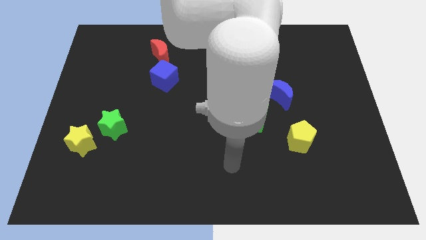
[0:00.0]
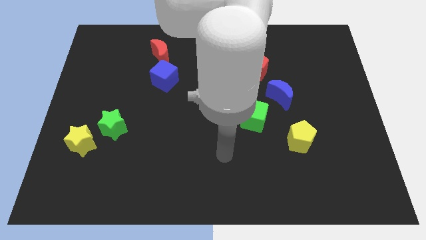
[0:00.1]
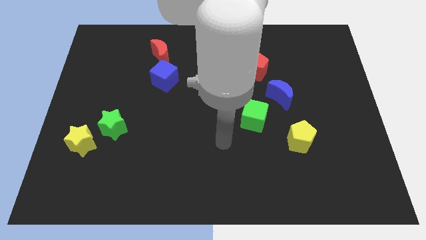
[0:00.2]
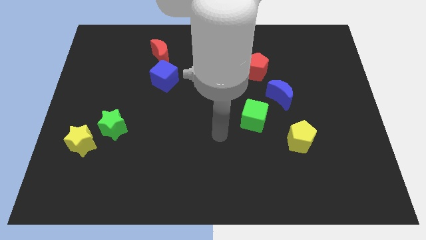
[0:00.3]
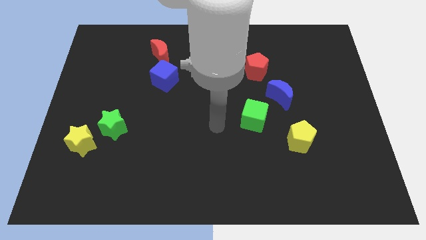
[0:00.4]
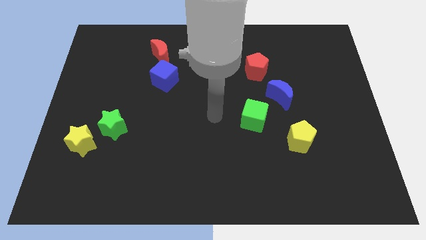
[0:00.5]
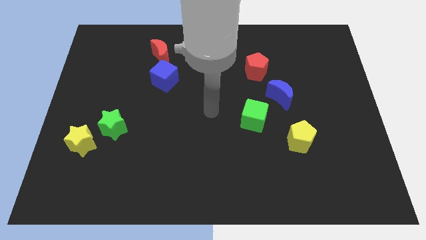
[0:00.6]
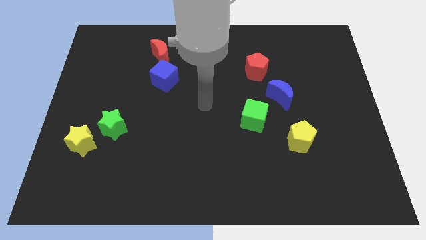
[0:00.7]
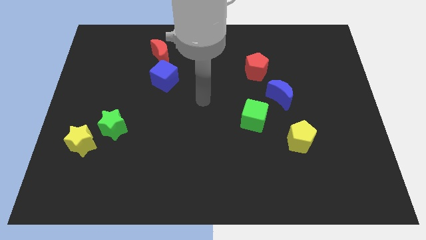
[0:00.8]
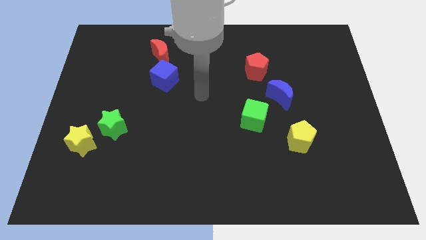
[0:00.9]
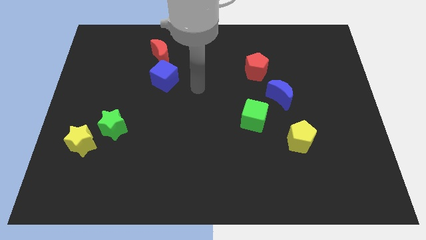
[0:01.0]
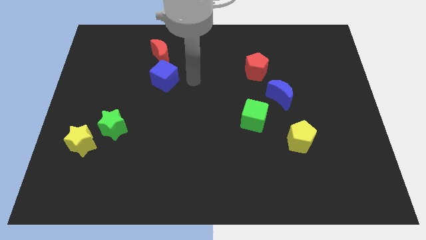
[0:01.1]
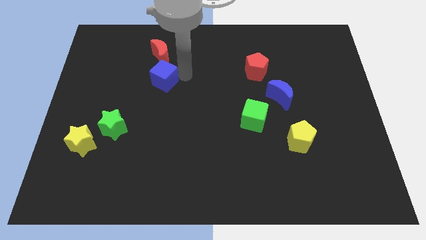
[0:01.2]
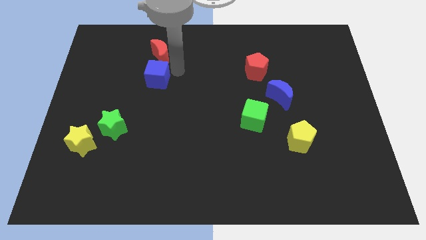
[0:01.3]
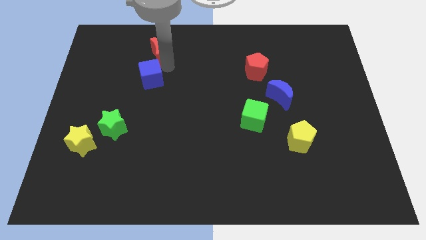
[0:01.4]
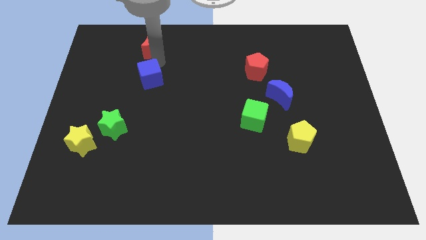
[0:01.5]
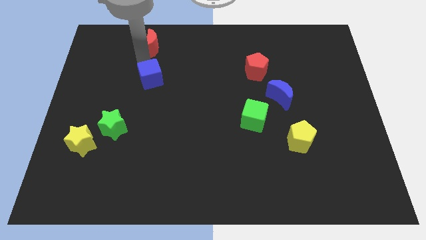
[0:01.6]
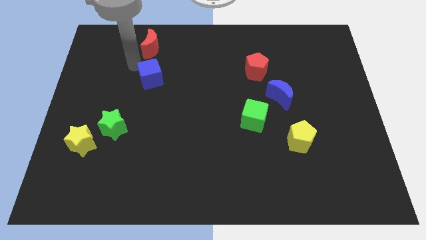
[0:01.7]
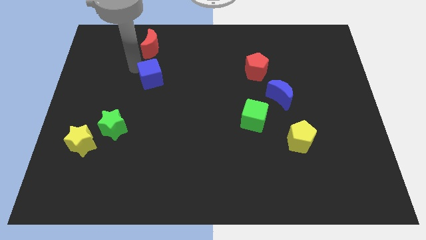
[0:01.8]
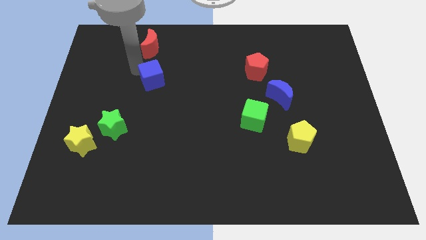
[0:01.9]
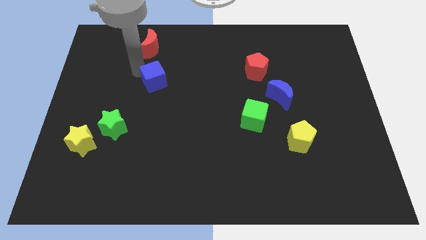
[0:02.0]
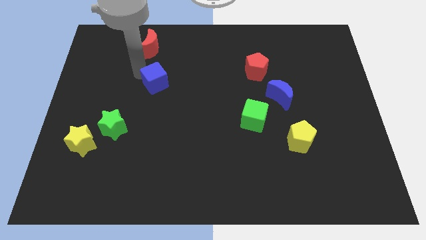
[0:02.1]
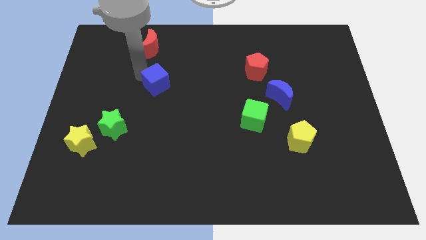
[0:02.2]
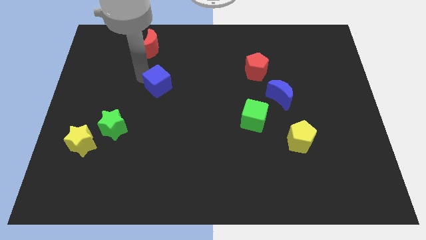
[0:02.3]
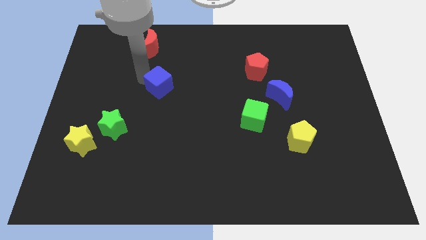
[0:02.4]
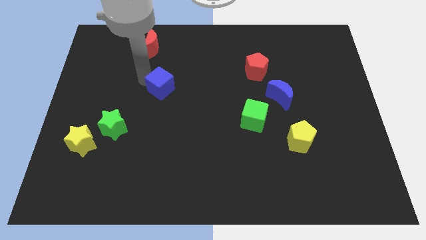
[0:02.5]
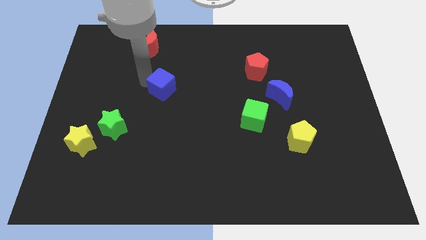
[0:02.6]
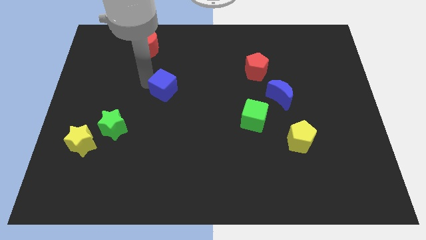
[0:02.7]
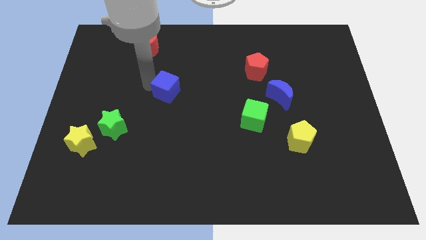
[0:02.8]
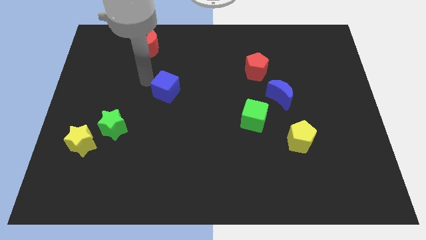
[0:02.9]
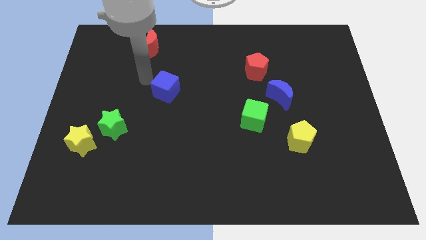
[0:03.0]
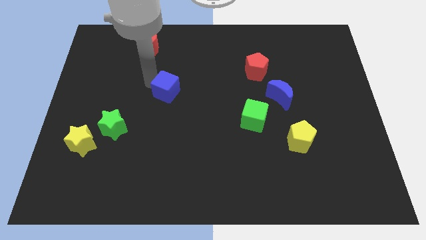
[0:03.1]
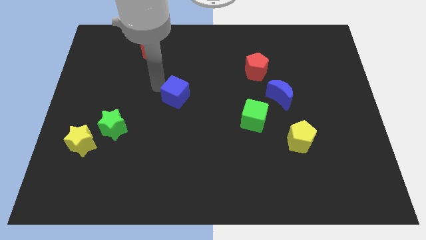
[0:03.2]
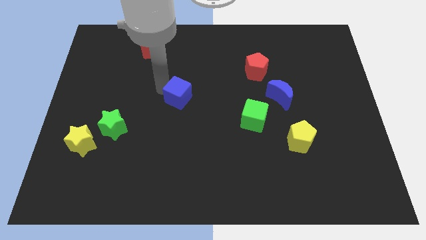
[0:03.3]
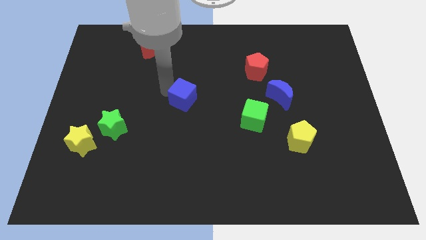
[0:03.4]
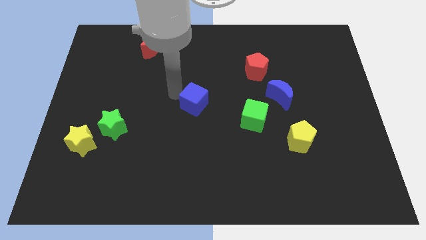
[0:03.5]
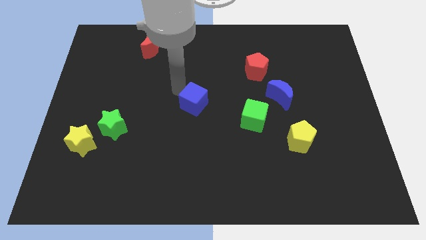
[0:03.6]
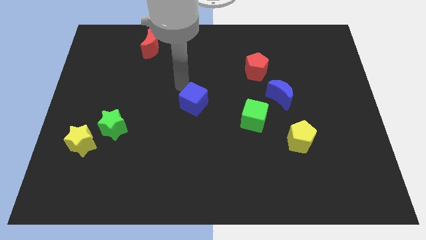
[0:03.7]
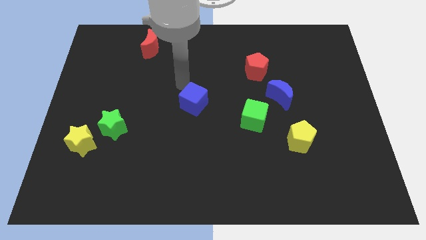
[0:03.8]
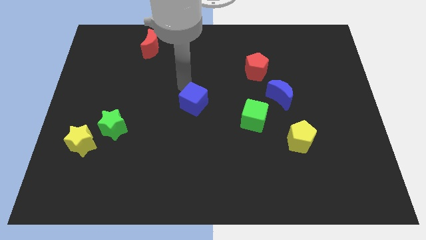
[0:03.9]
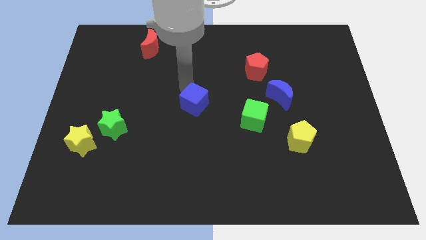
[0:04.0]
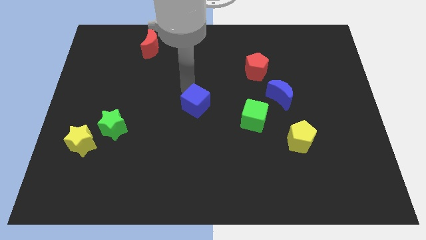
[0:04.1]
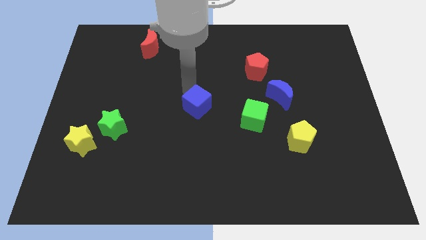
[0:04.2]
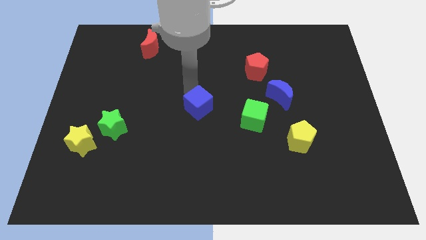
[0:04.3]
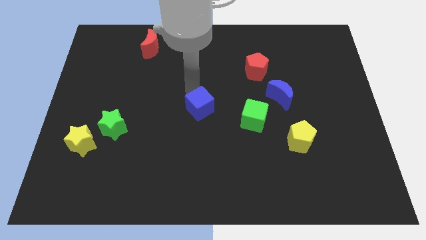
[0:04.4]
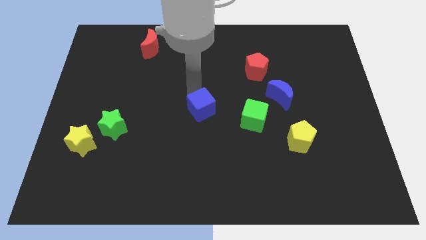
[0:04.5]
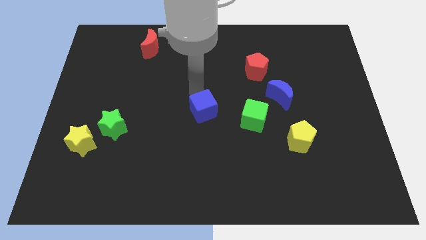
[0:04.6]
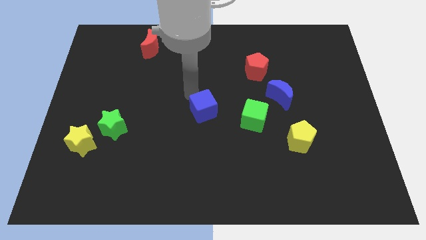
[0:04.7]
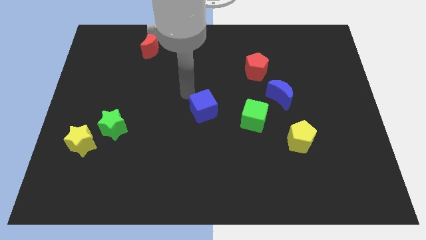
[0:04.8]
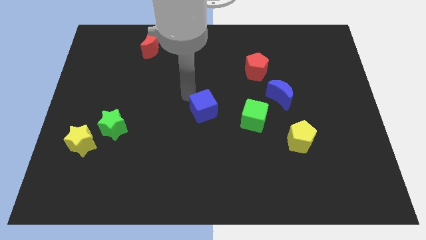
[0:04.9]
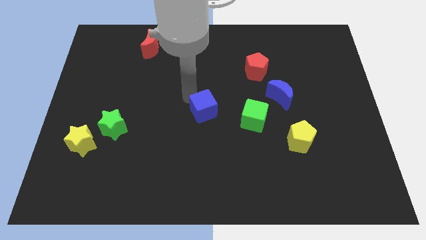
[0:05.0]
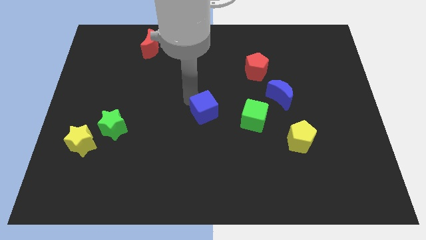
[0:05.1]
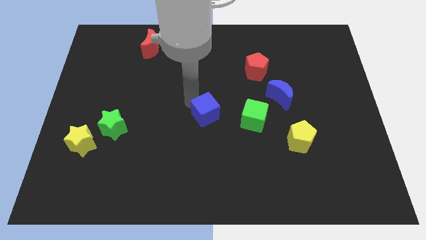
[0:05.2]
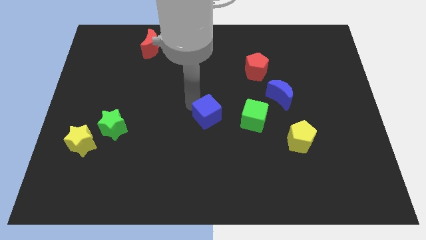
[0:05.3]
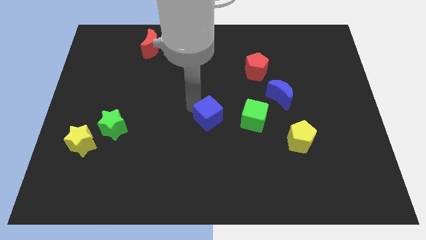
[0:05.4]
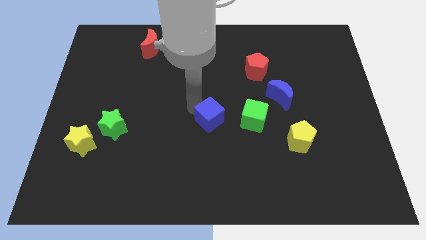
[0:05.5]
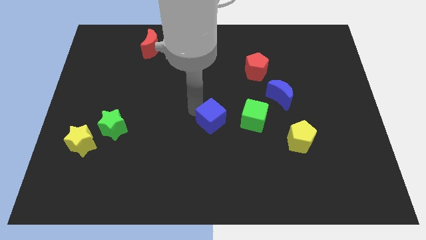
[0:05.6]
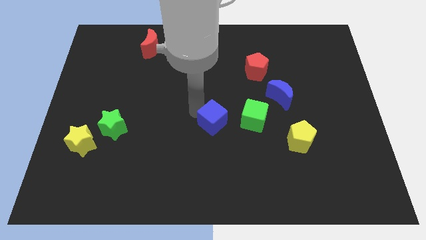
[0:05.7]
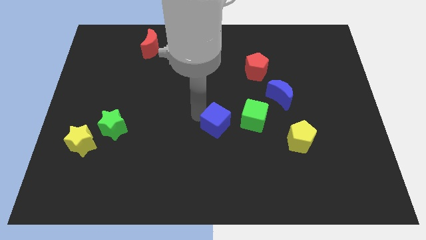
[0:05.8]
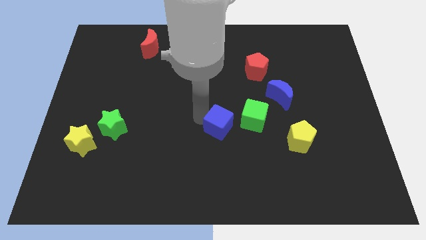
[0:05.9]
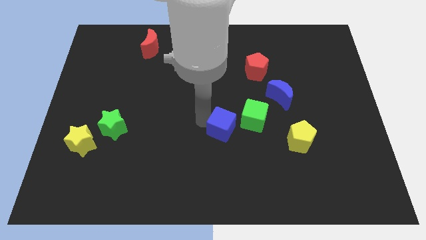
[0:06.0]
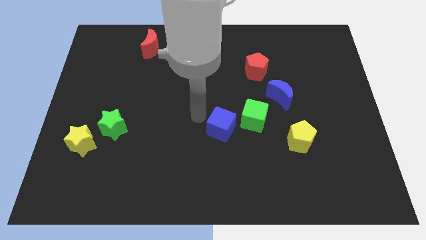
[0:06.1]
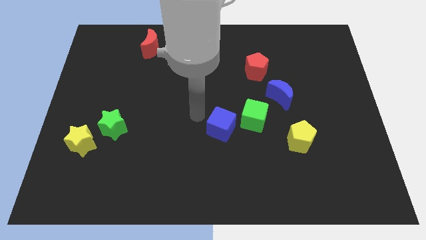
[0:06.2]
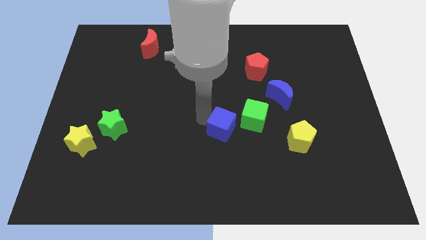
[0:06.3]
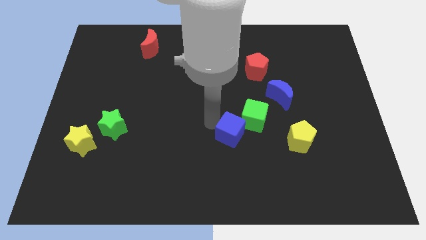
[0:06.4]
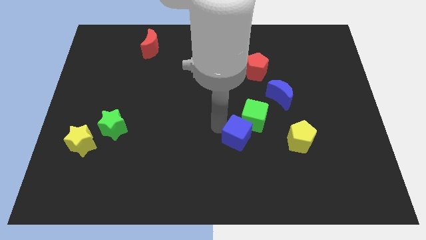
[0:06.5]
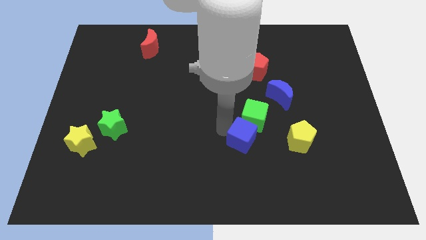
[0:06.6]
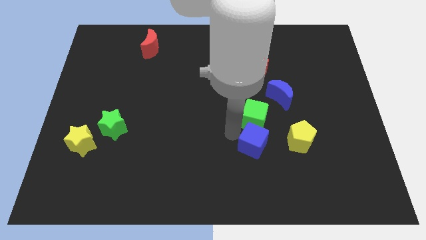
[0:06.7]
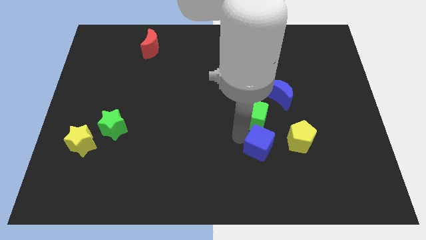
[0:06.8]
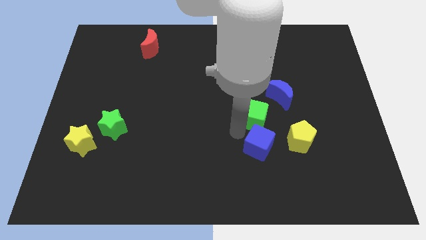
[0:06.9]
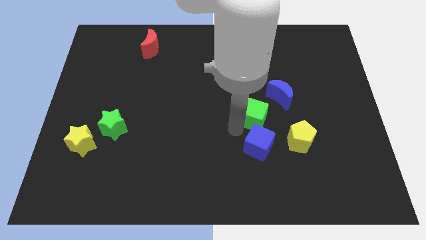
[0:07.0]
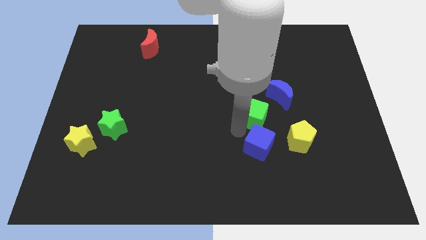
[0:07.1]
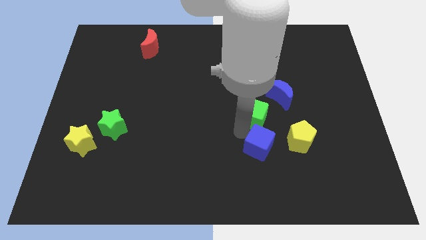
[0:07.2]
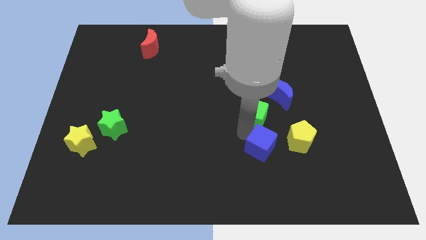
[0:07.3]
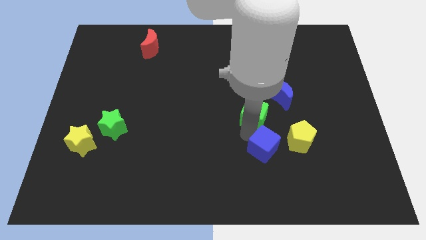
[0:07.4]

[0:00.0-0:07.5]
slide the blue cube to the bottom left of the yellow pentagon
